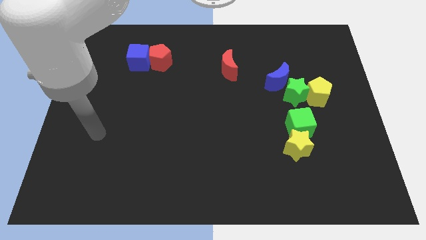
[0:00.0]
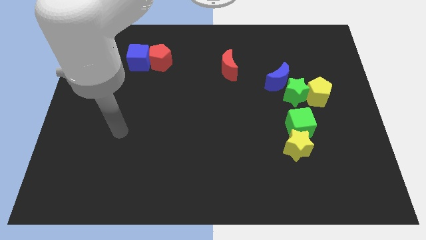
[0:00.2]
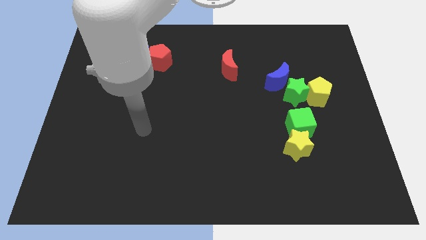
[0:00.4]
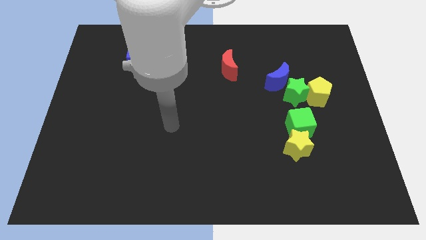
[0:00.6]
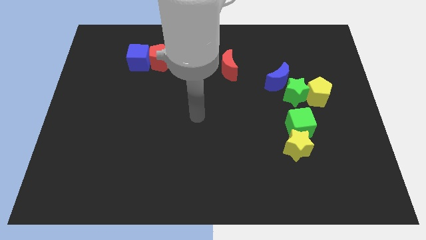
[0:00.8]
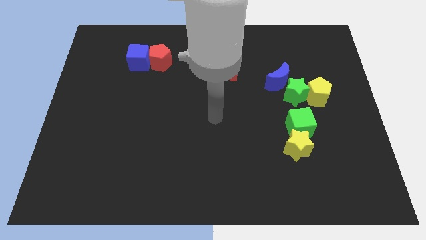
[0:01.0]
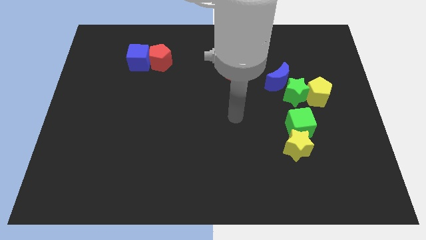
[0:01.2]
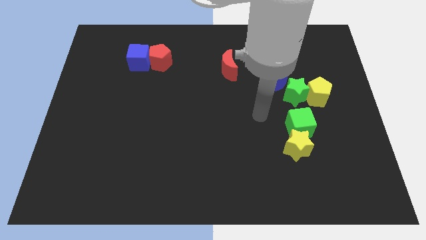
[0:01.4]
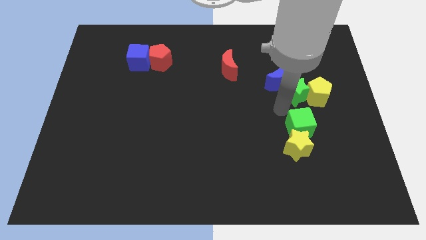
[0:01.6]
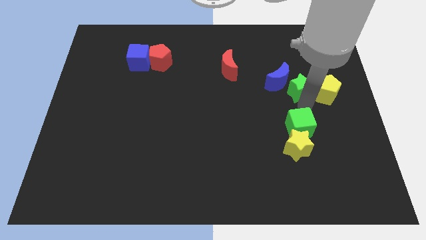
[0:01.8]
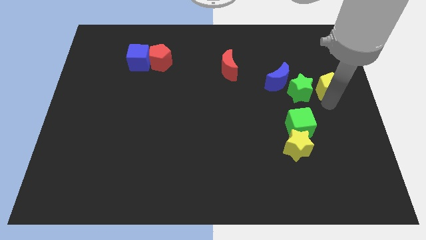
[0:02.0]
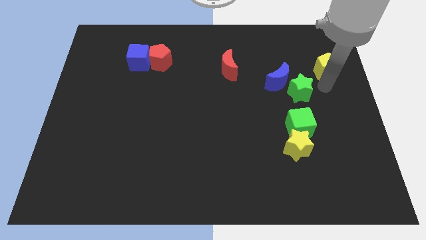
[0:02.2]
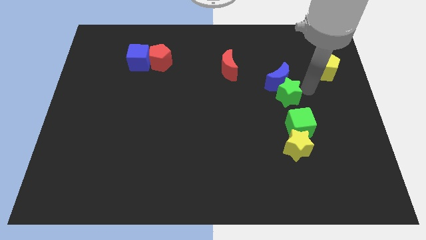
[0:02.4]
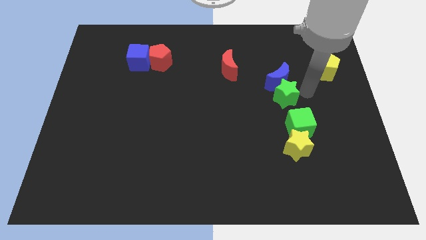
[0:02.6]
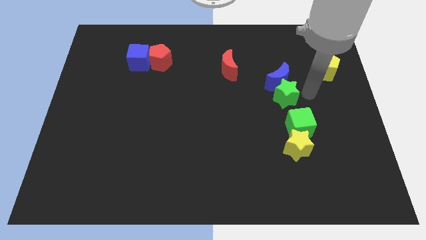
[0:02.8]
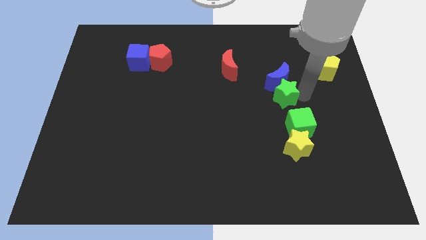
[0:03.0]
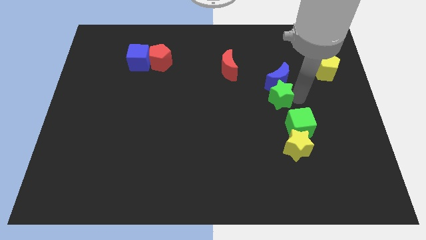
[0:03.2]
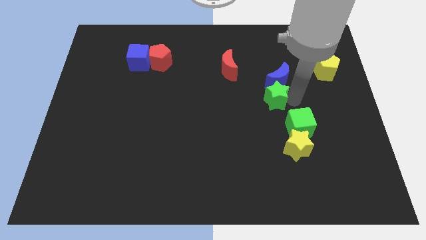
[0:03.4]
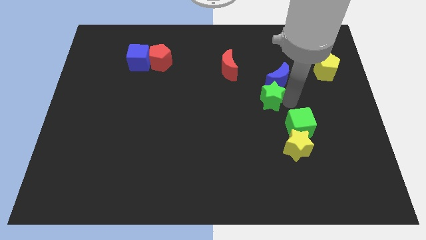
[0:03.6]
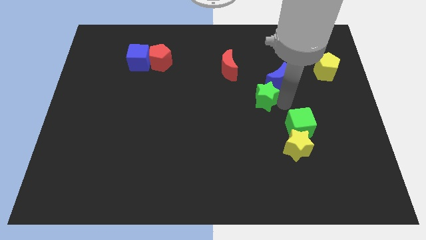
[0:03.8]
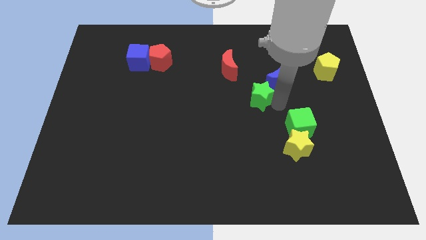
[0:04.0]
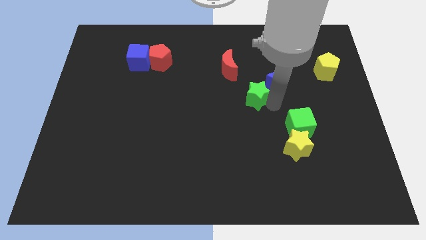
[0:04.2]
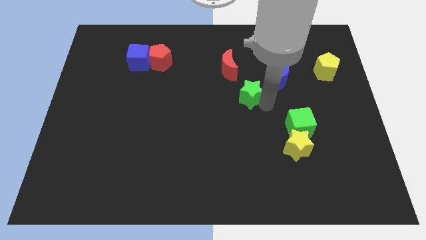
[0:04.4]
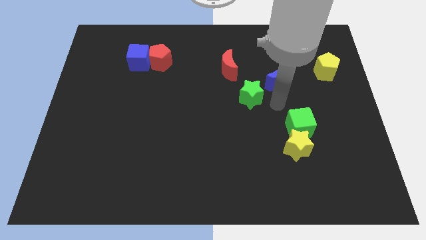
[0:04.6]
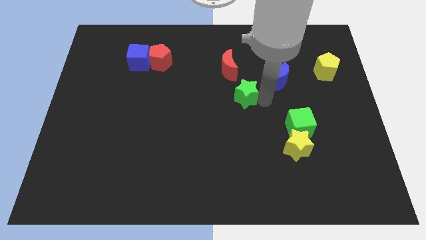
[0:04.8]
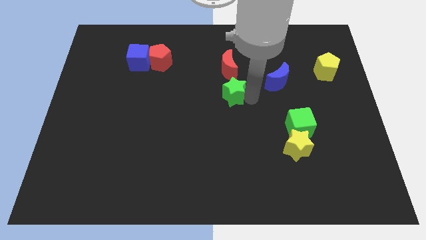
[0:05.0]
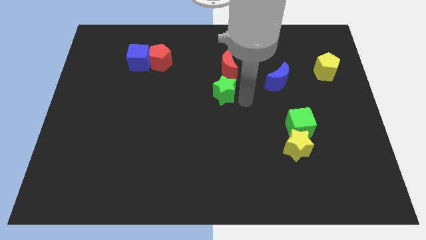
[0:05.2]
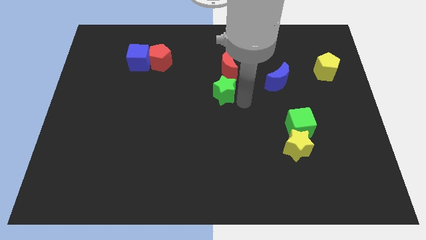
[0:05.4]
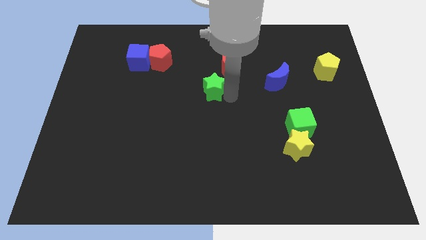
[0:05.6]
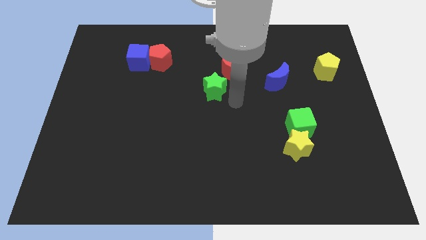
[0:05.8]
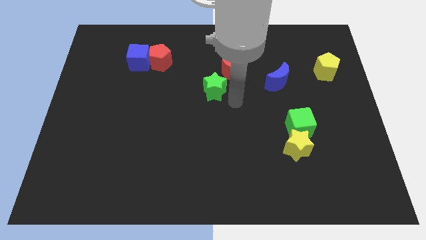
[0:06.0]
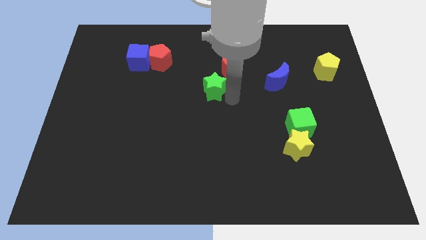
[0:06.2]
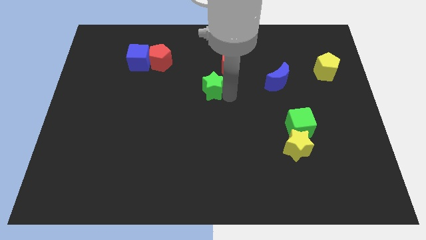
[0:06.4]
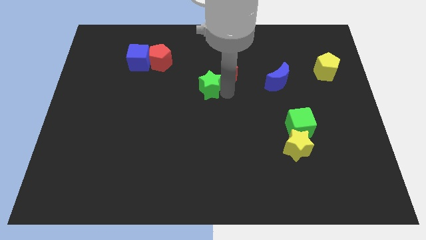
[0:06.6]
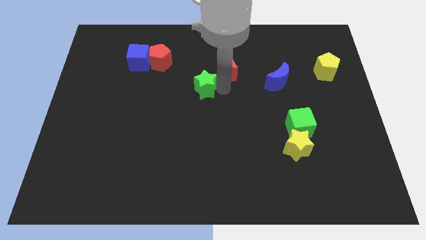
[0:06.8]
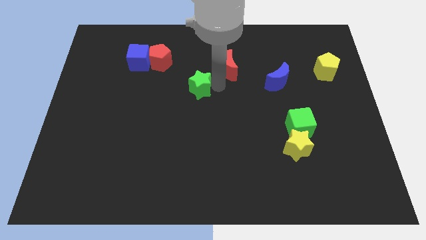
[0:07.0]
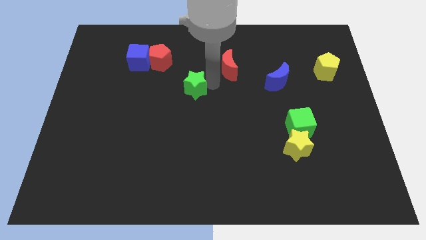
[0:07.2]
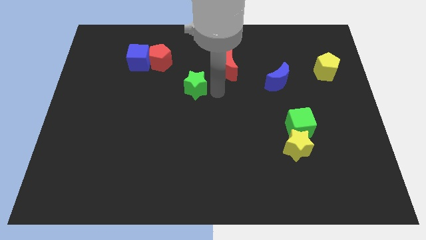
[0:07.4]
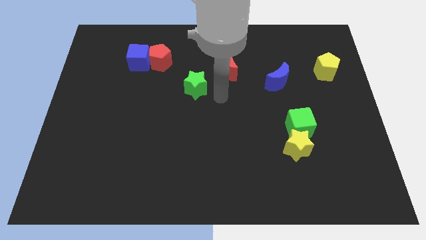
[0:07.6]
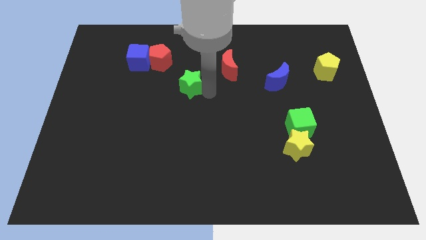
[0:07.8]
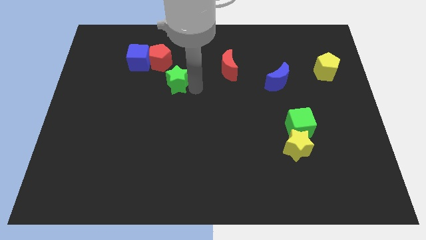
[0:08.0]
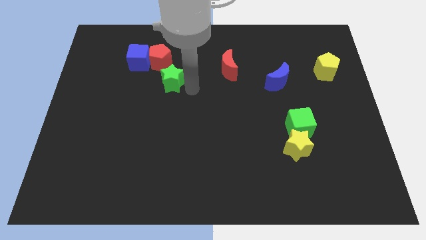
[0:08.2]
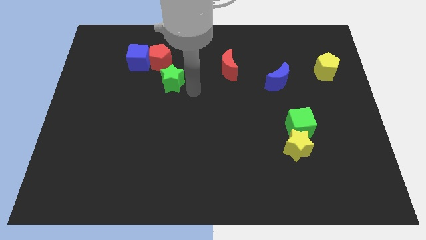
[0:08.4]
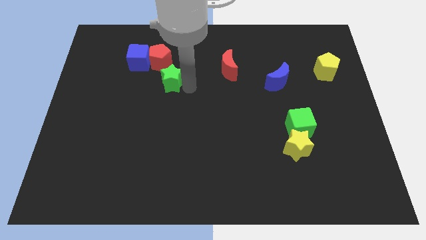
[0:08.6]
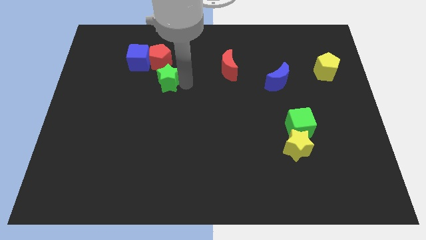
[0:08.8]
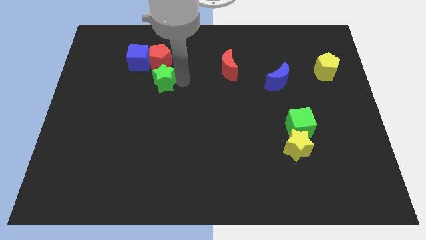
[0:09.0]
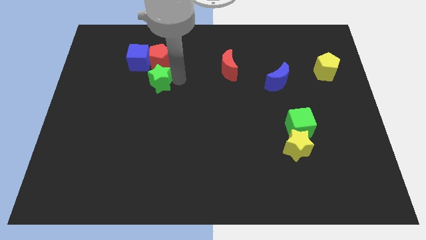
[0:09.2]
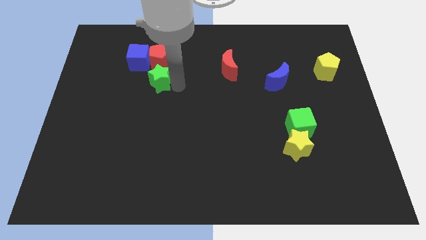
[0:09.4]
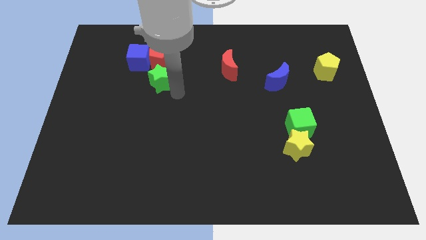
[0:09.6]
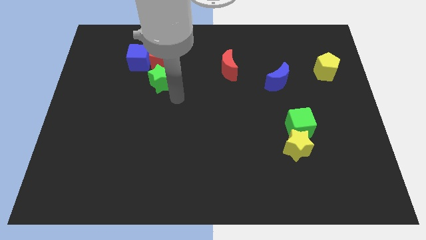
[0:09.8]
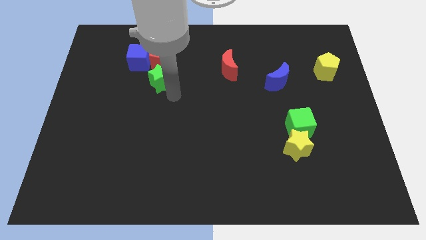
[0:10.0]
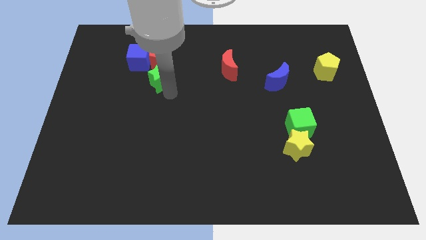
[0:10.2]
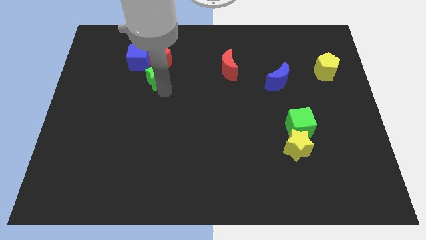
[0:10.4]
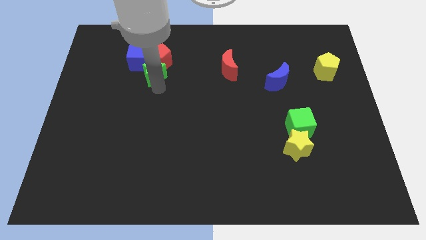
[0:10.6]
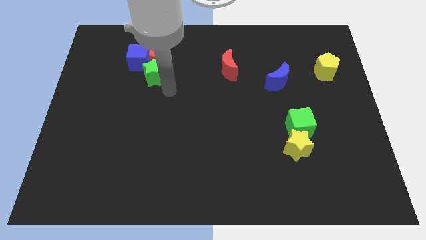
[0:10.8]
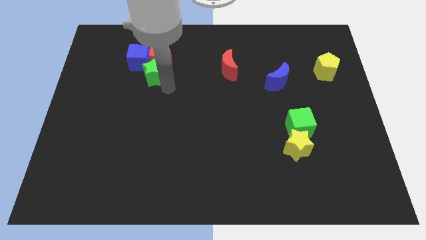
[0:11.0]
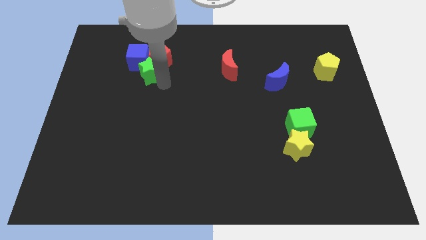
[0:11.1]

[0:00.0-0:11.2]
put the green star towards the blue cube
